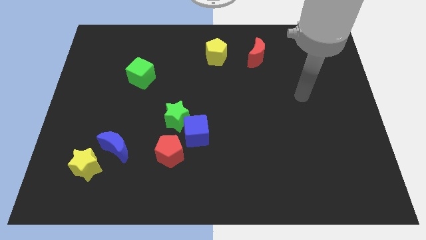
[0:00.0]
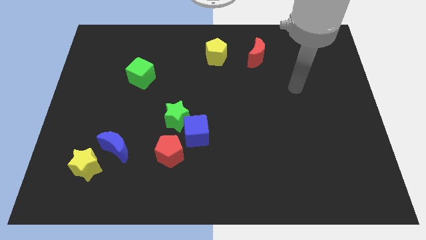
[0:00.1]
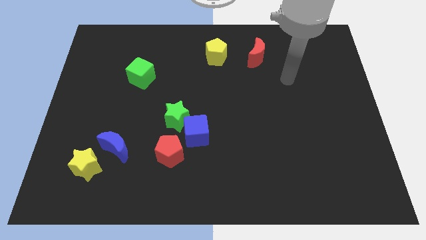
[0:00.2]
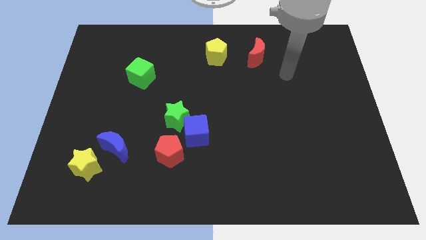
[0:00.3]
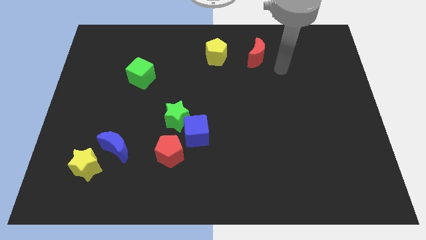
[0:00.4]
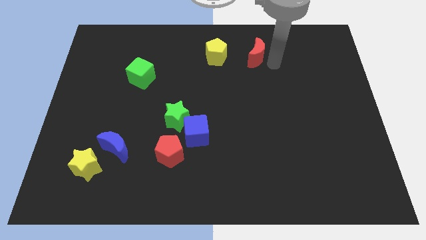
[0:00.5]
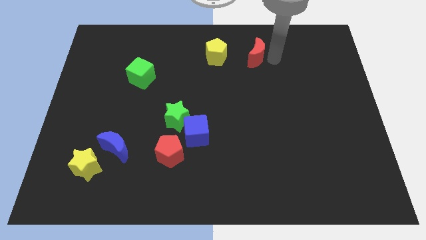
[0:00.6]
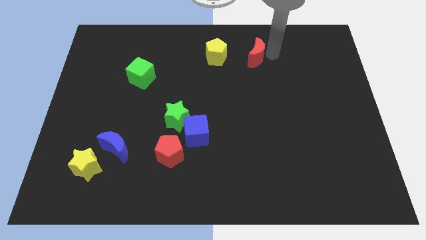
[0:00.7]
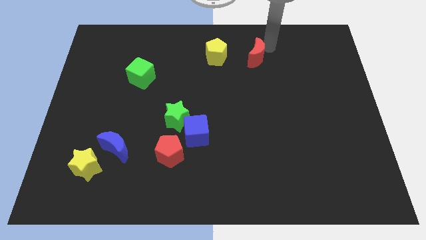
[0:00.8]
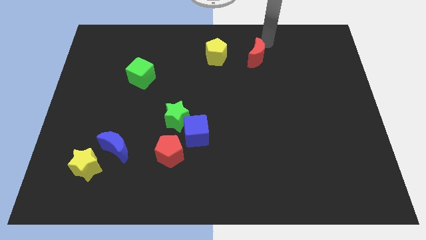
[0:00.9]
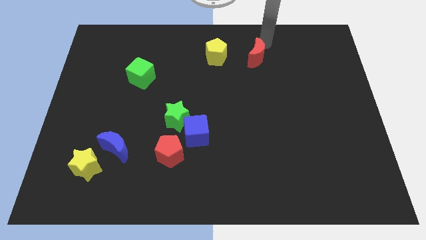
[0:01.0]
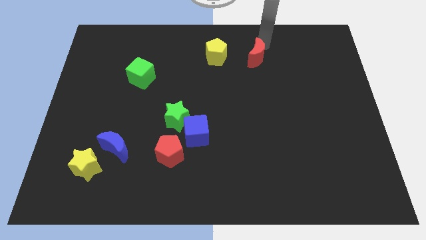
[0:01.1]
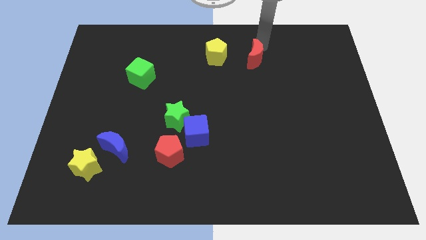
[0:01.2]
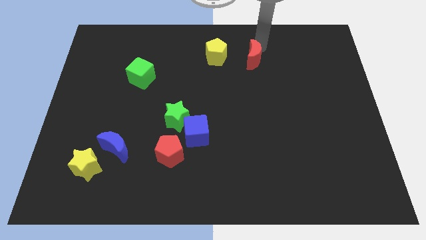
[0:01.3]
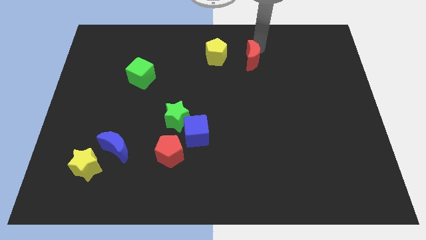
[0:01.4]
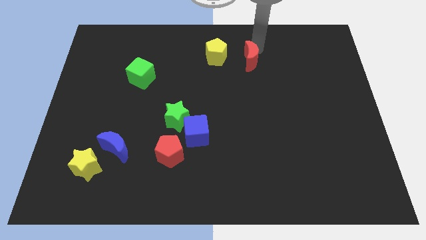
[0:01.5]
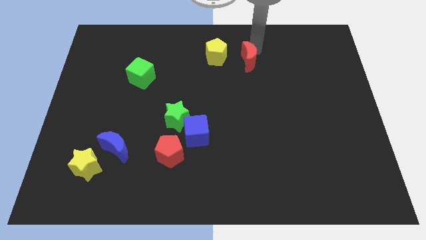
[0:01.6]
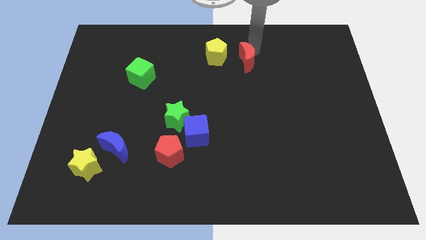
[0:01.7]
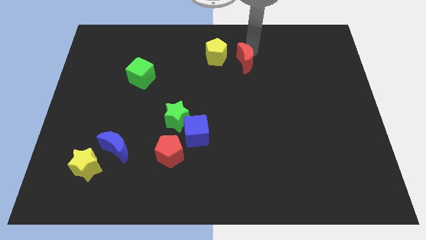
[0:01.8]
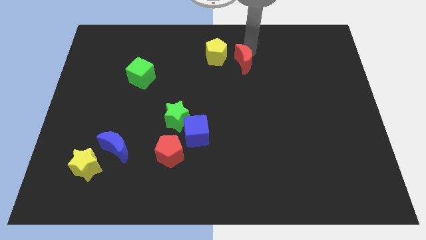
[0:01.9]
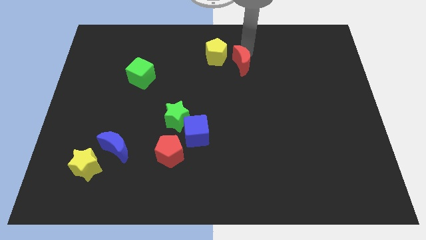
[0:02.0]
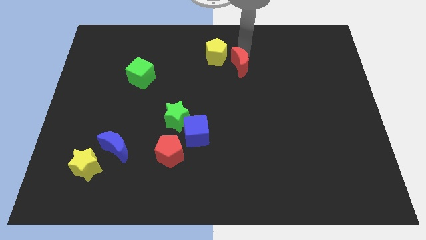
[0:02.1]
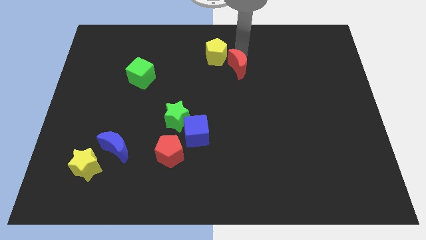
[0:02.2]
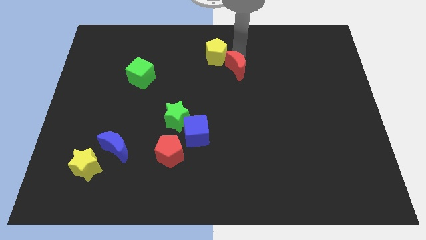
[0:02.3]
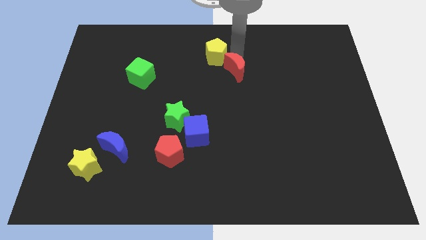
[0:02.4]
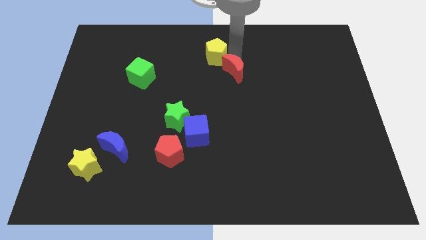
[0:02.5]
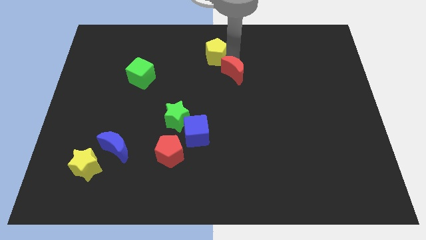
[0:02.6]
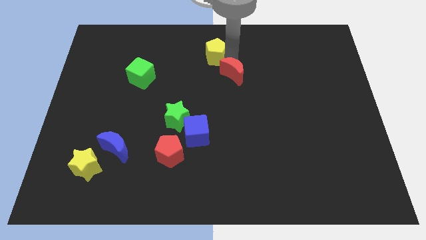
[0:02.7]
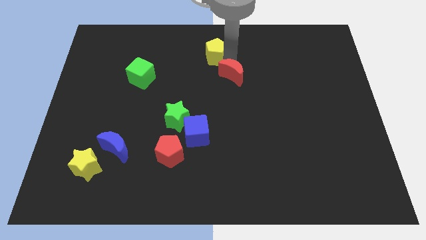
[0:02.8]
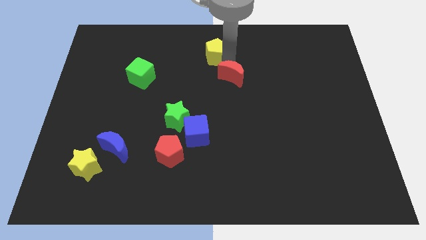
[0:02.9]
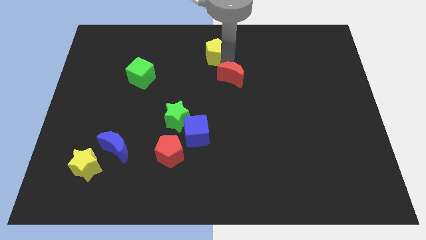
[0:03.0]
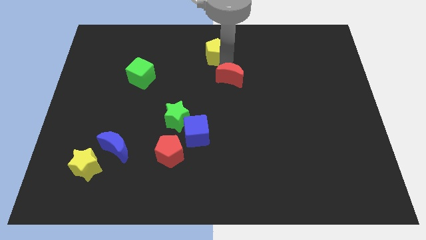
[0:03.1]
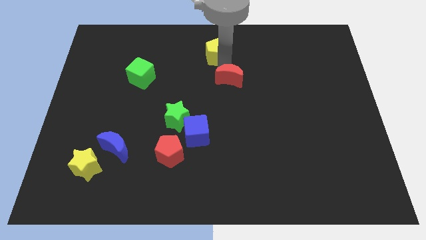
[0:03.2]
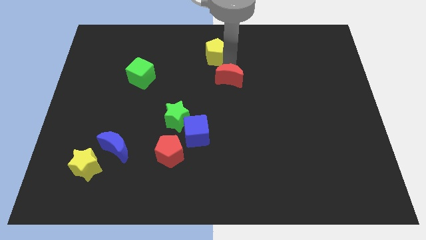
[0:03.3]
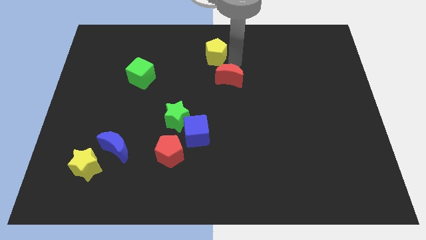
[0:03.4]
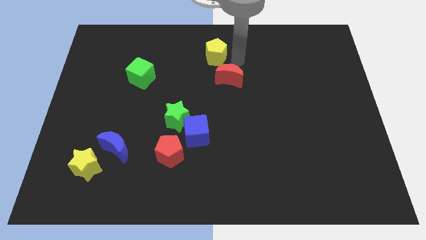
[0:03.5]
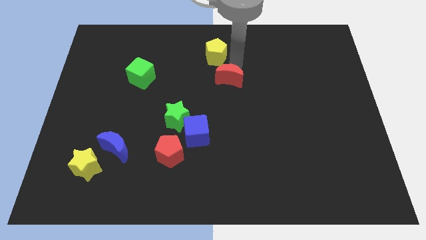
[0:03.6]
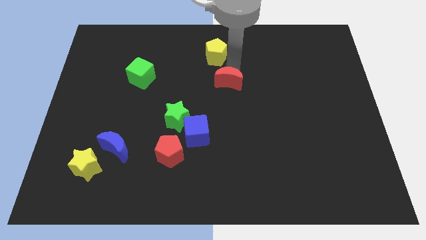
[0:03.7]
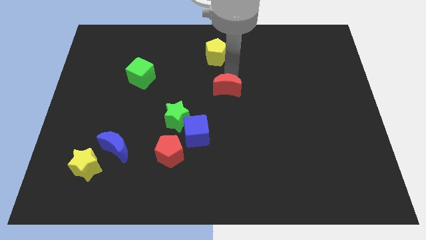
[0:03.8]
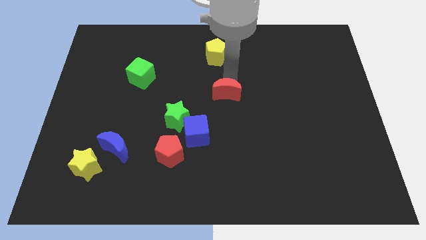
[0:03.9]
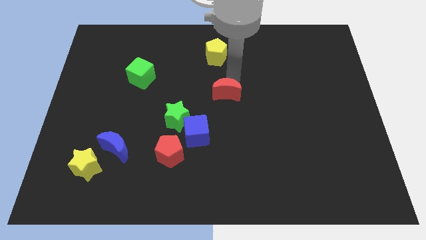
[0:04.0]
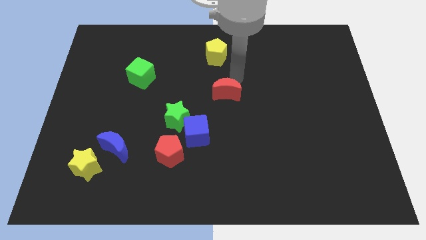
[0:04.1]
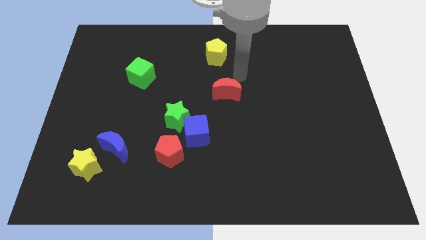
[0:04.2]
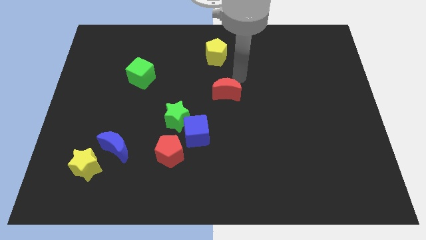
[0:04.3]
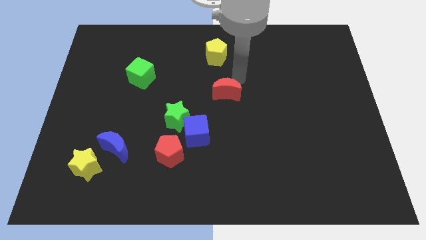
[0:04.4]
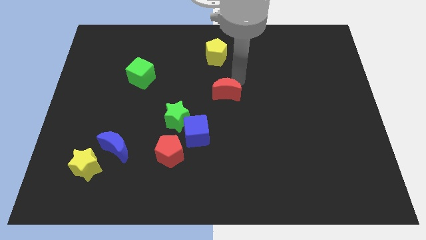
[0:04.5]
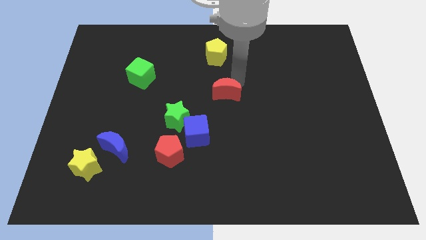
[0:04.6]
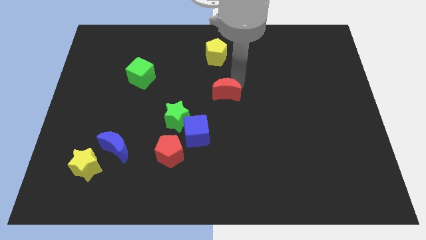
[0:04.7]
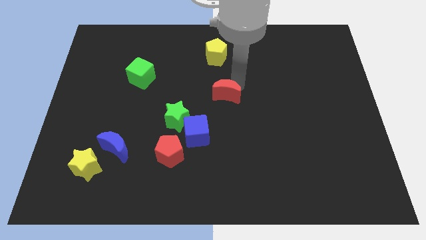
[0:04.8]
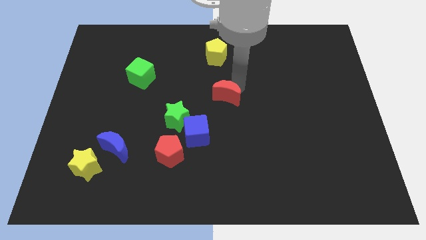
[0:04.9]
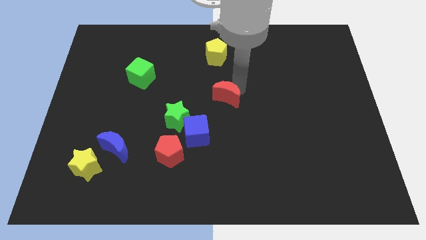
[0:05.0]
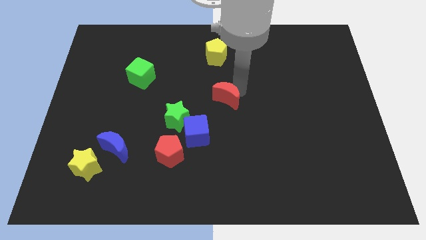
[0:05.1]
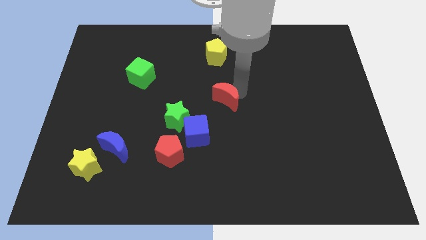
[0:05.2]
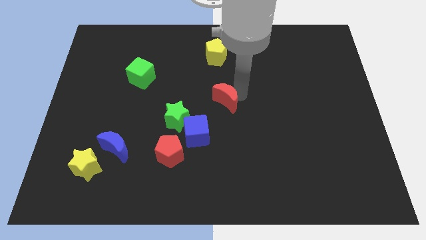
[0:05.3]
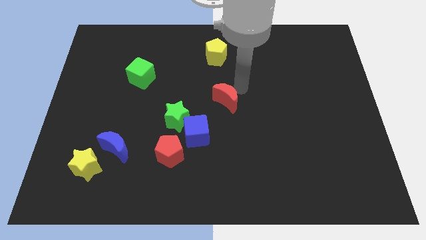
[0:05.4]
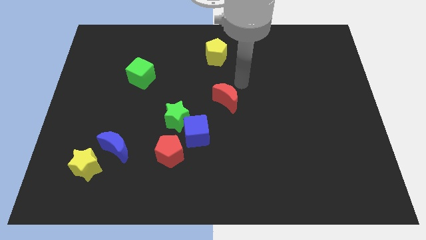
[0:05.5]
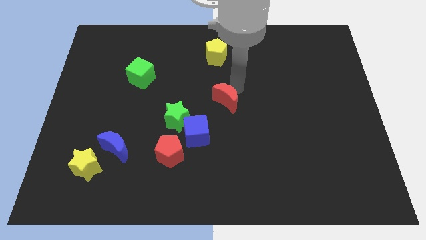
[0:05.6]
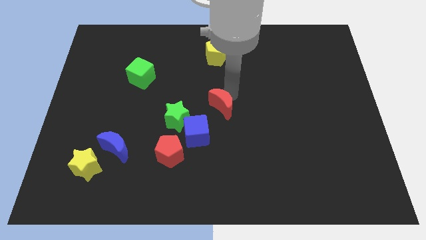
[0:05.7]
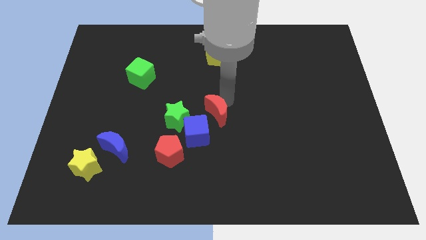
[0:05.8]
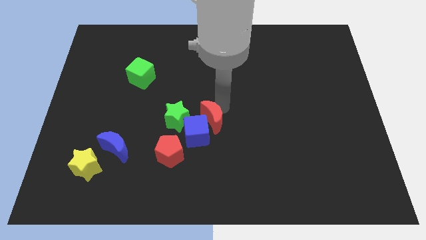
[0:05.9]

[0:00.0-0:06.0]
slide the red moon to the blue cube
